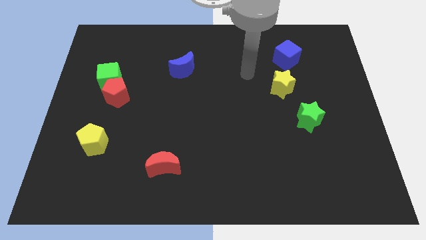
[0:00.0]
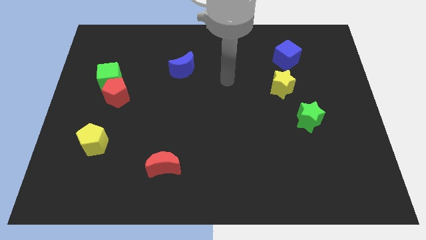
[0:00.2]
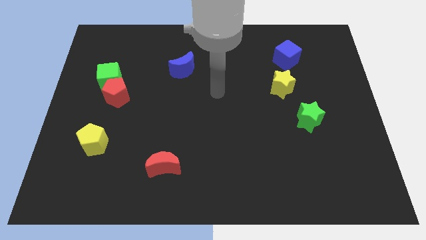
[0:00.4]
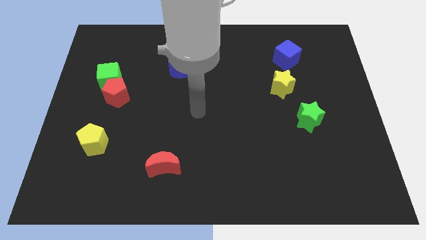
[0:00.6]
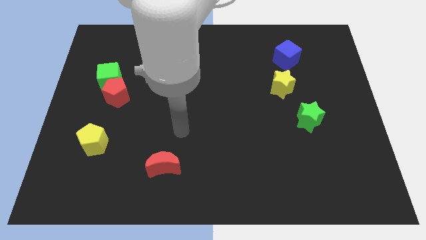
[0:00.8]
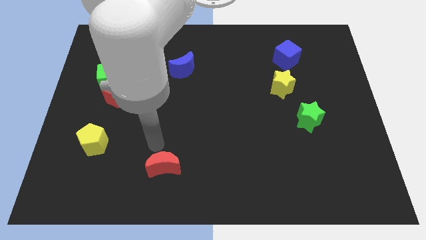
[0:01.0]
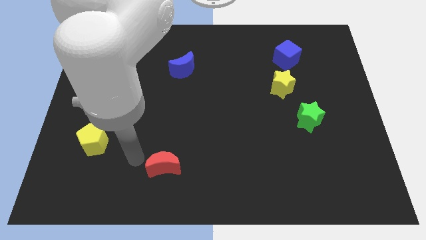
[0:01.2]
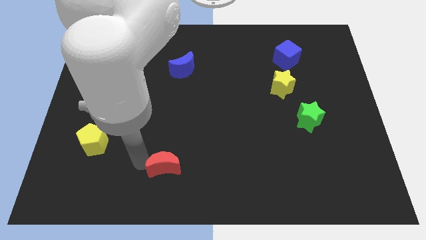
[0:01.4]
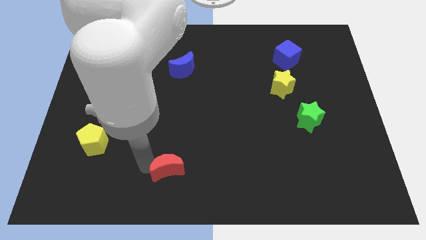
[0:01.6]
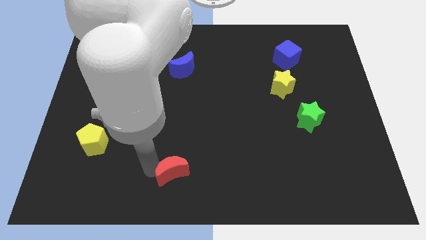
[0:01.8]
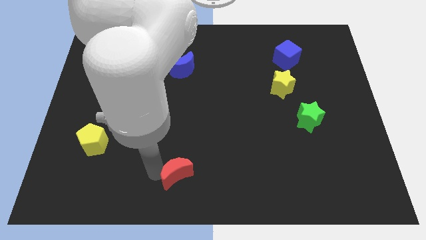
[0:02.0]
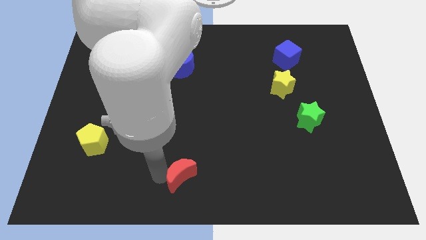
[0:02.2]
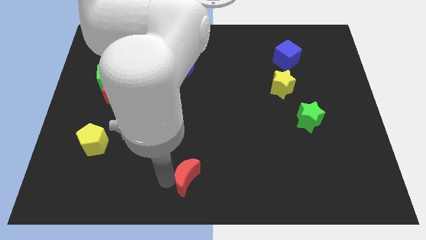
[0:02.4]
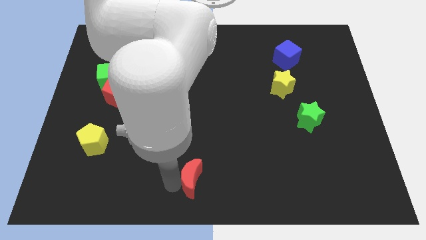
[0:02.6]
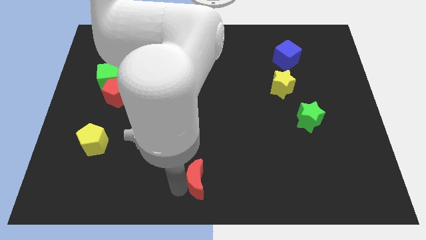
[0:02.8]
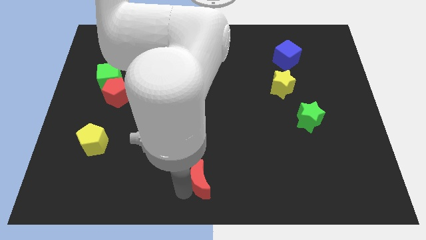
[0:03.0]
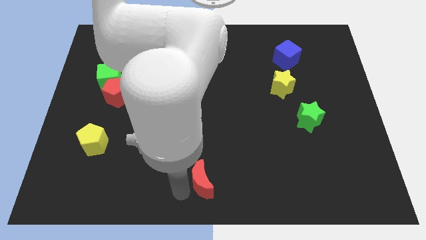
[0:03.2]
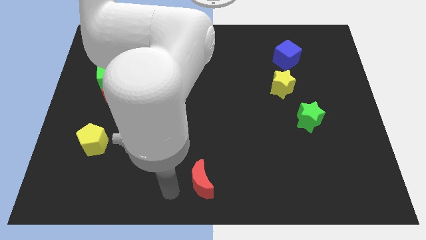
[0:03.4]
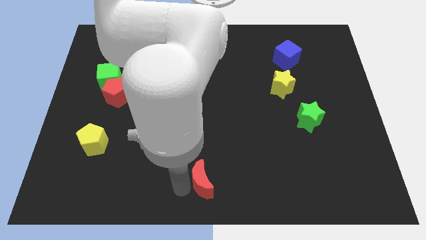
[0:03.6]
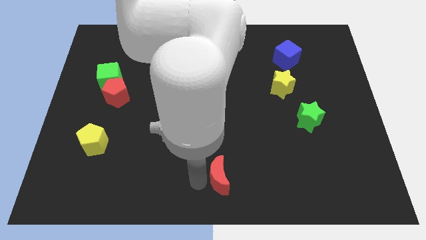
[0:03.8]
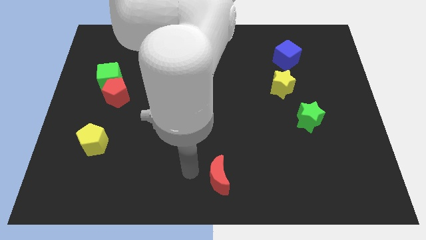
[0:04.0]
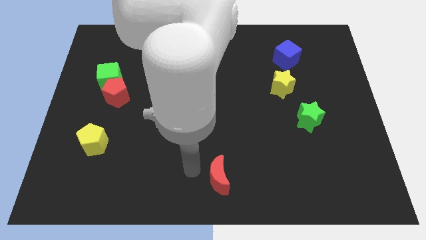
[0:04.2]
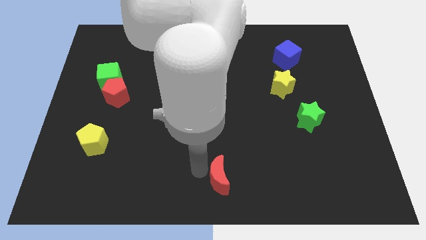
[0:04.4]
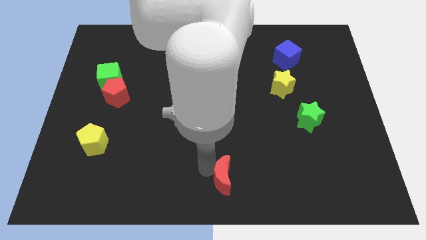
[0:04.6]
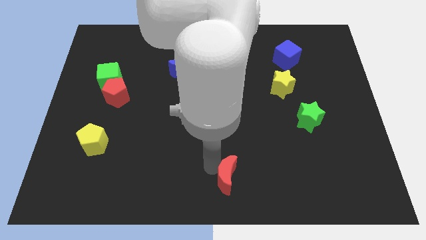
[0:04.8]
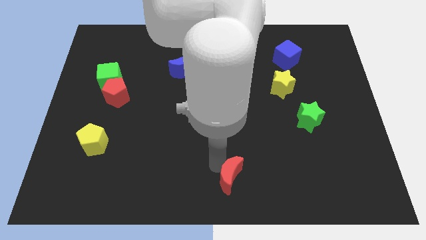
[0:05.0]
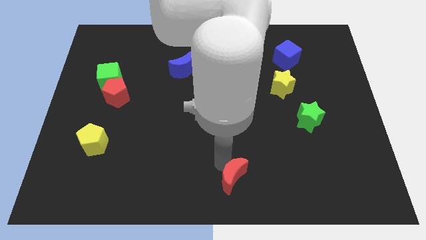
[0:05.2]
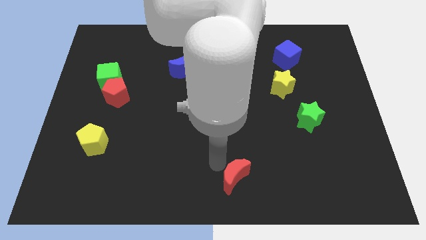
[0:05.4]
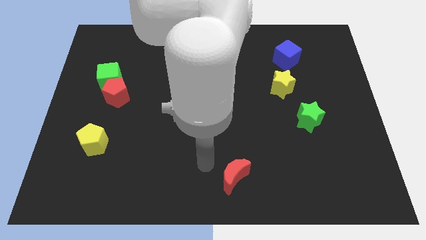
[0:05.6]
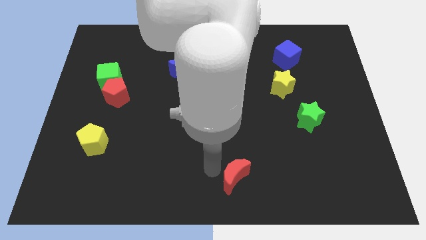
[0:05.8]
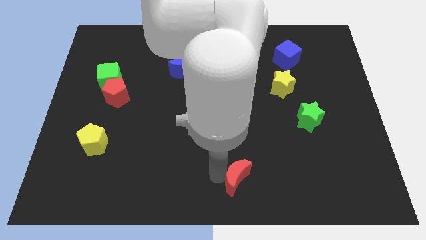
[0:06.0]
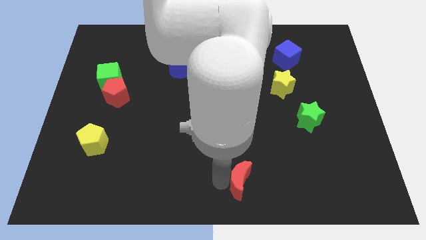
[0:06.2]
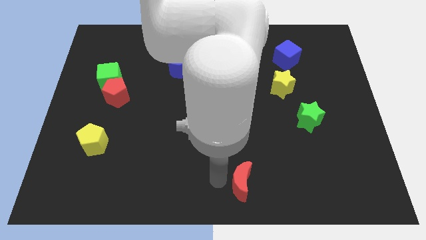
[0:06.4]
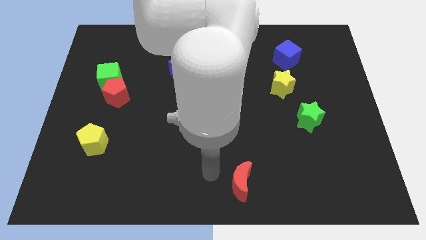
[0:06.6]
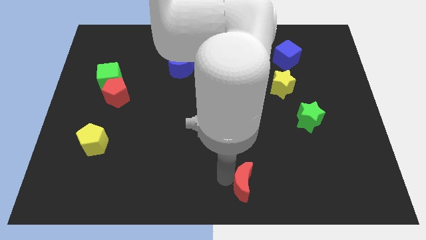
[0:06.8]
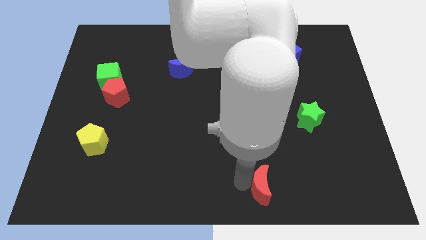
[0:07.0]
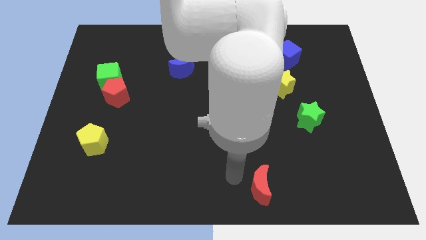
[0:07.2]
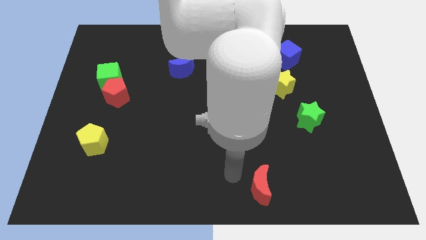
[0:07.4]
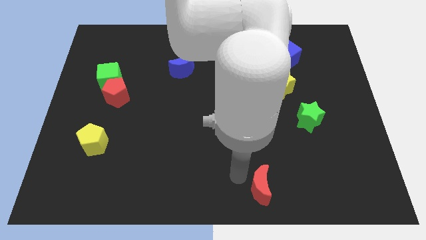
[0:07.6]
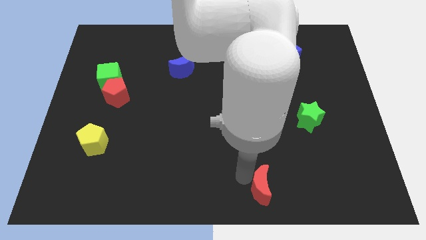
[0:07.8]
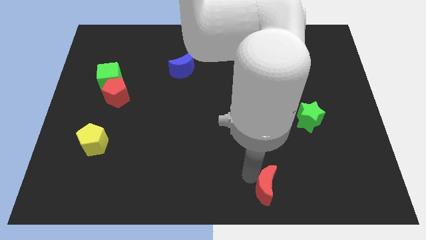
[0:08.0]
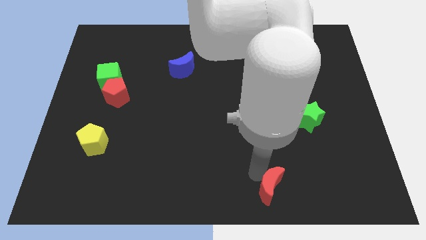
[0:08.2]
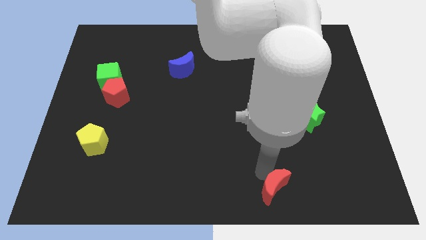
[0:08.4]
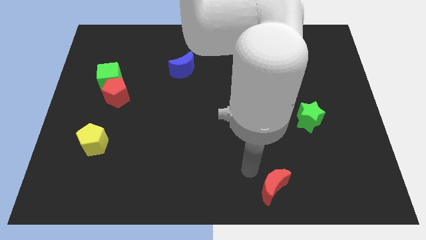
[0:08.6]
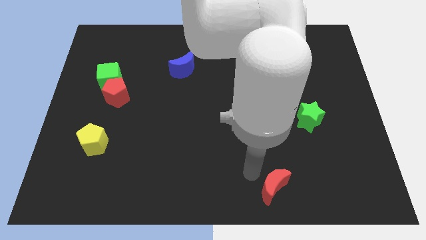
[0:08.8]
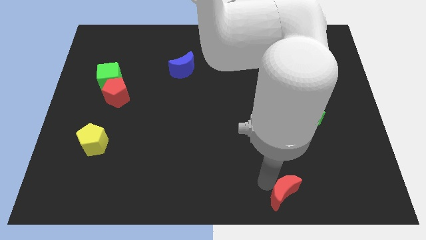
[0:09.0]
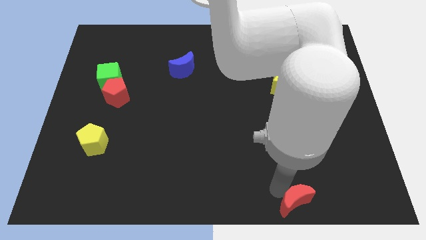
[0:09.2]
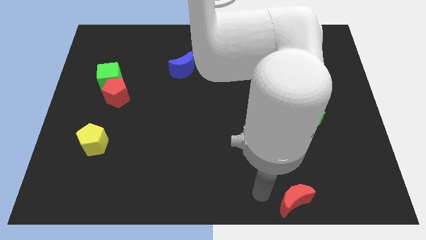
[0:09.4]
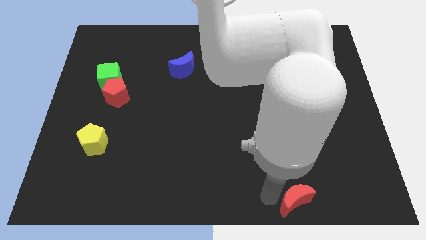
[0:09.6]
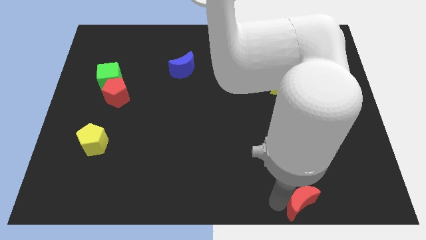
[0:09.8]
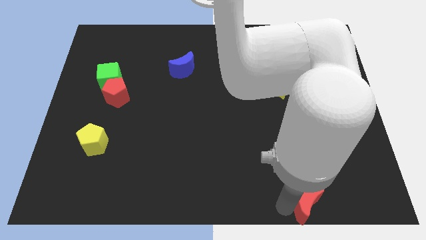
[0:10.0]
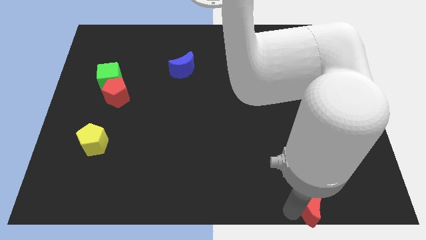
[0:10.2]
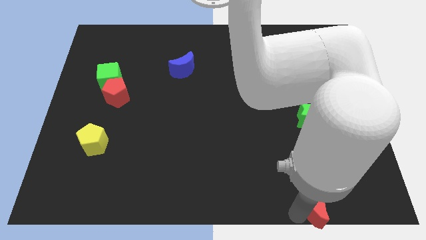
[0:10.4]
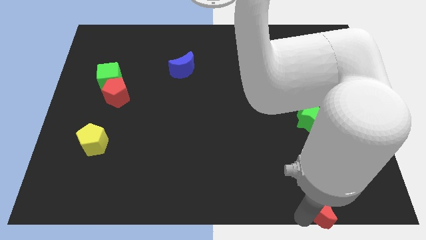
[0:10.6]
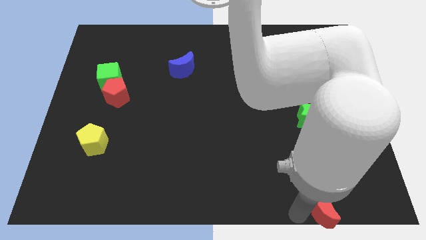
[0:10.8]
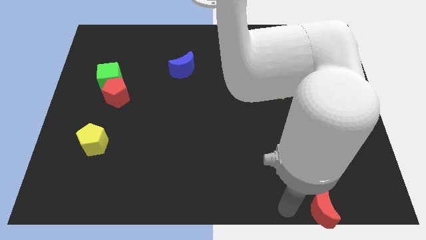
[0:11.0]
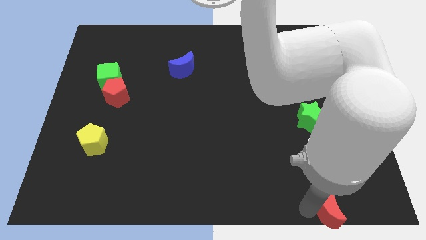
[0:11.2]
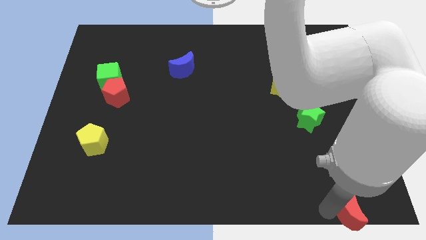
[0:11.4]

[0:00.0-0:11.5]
slide the red moon to the bottom right corner
